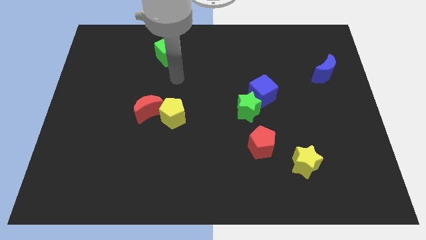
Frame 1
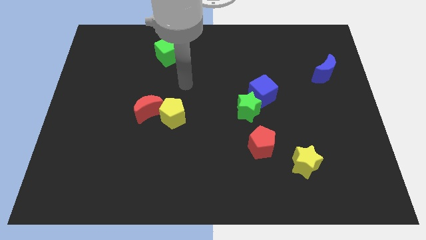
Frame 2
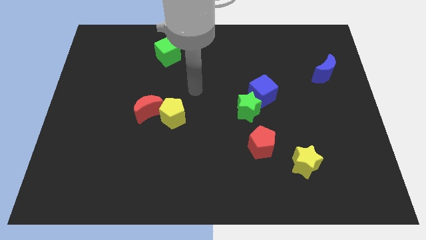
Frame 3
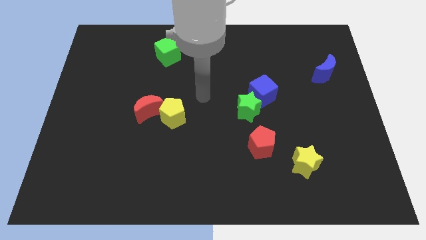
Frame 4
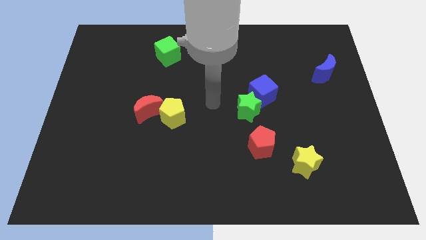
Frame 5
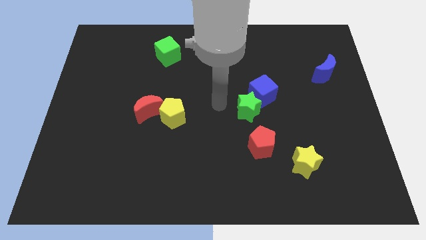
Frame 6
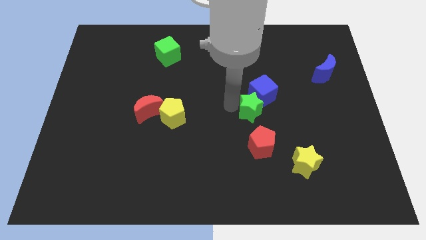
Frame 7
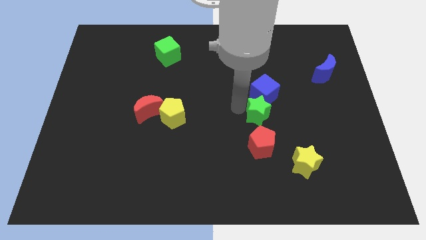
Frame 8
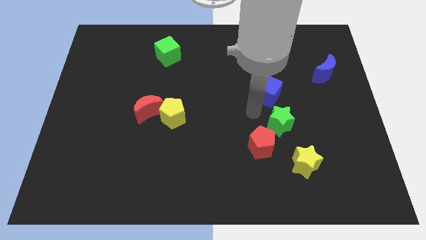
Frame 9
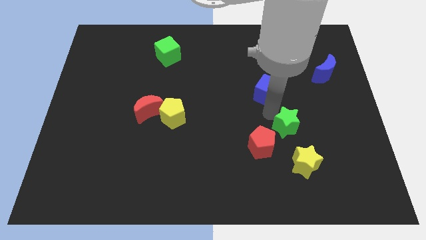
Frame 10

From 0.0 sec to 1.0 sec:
pull the blue cube apart from the green star

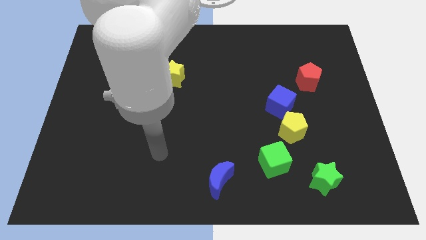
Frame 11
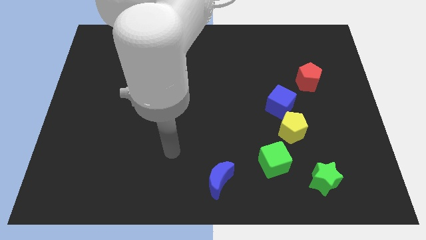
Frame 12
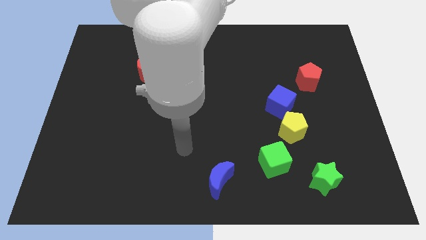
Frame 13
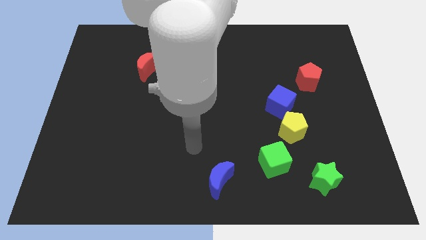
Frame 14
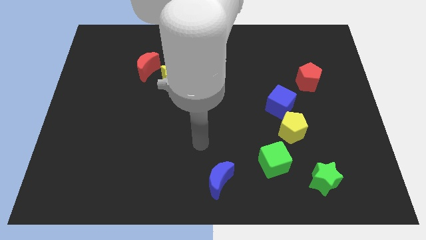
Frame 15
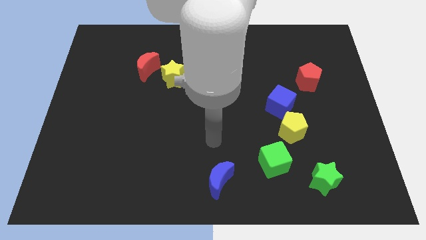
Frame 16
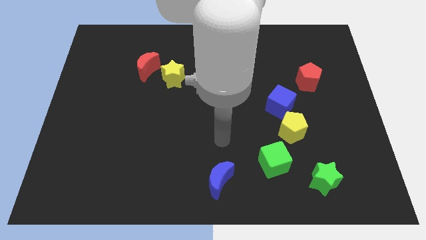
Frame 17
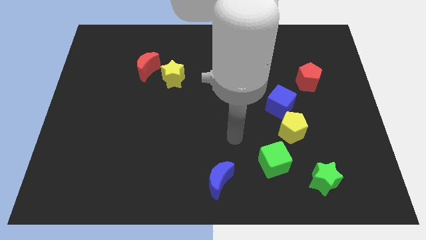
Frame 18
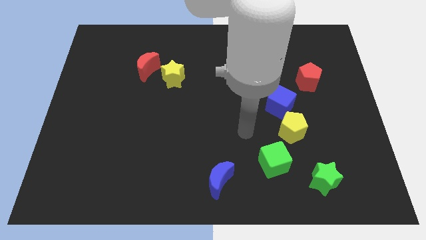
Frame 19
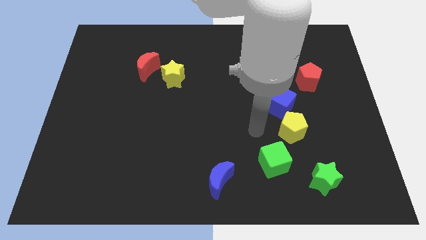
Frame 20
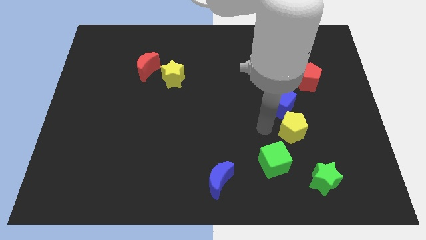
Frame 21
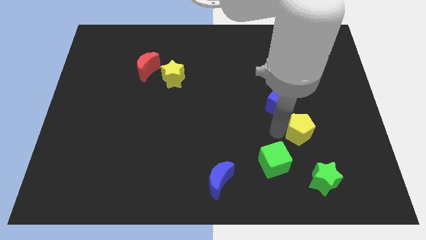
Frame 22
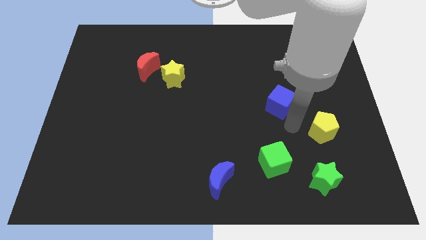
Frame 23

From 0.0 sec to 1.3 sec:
separate the blue cube from the yellow pentagon

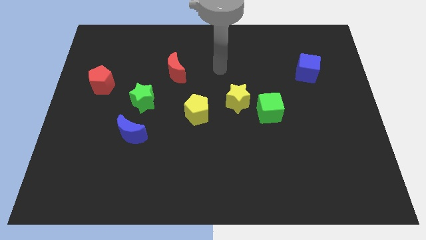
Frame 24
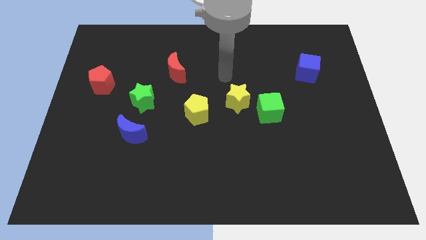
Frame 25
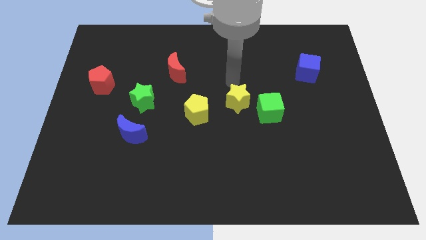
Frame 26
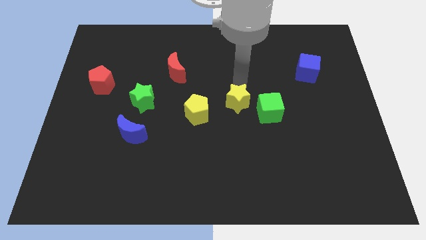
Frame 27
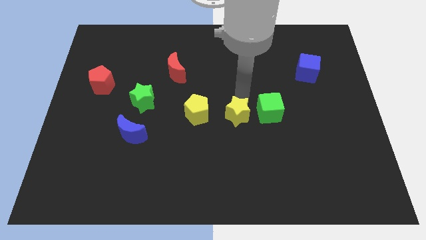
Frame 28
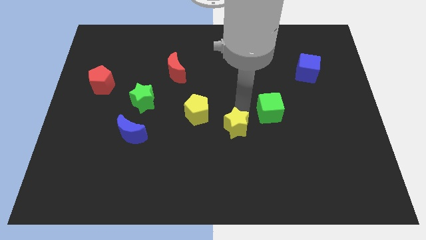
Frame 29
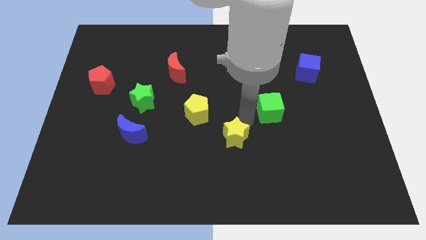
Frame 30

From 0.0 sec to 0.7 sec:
move the green cube away from the yellow star

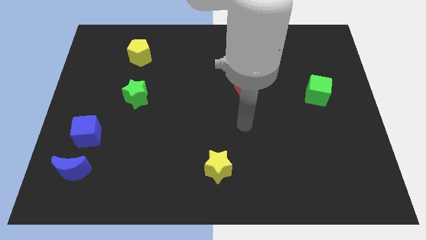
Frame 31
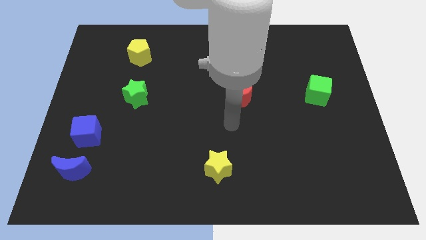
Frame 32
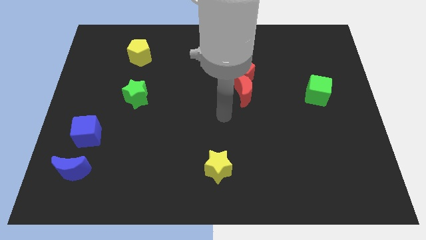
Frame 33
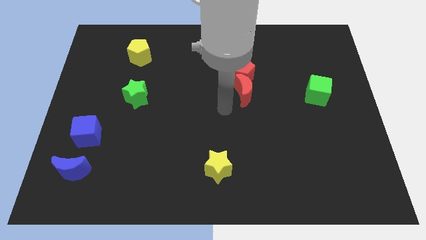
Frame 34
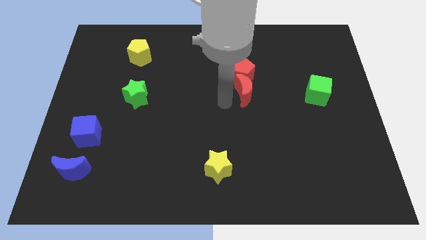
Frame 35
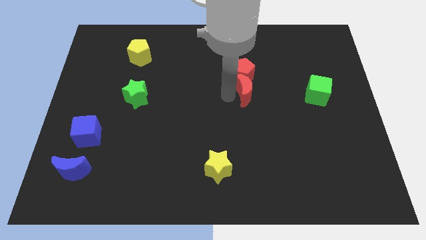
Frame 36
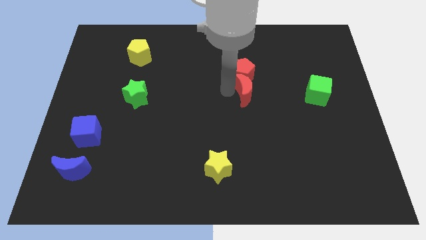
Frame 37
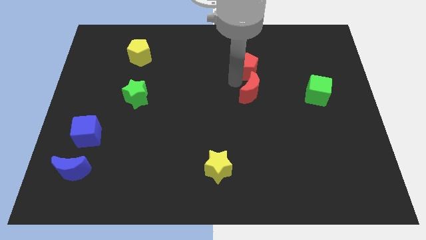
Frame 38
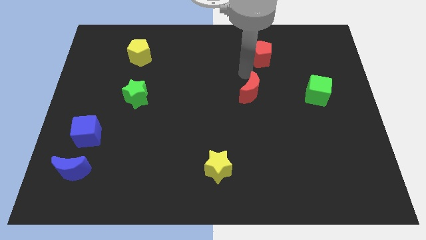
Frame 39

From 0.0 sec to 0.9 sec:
pull the red moon apart from the red pentagon

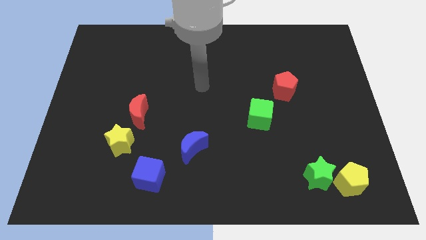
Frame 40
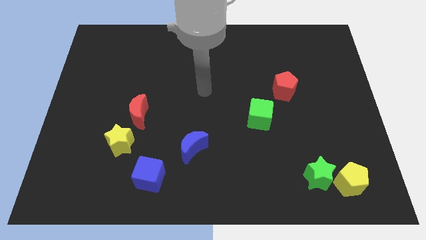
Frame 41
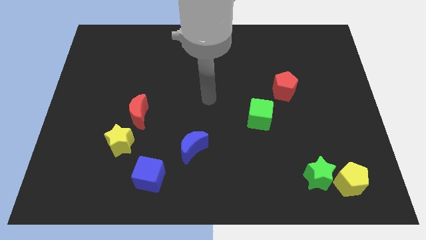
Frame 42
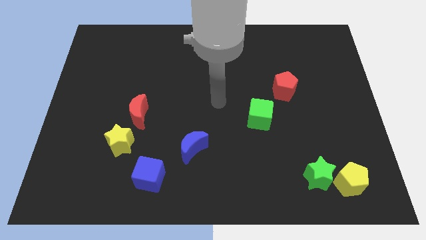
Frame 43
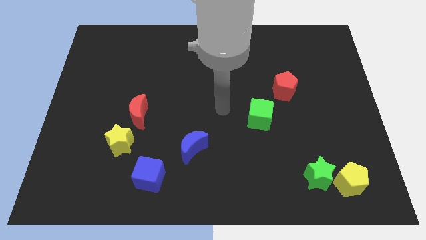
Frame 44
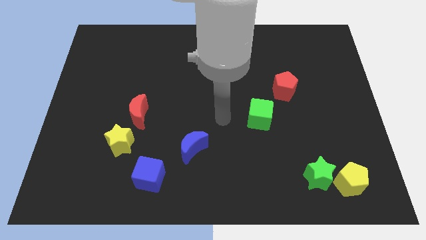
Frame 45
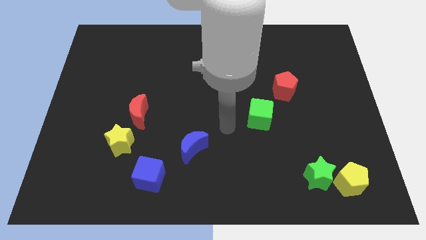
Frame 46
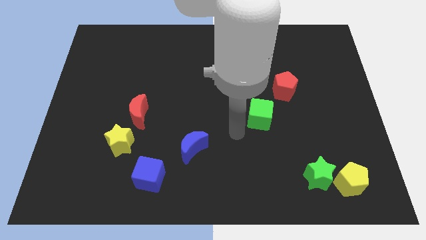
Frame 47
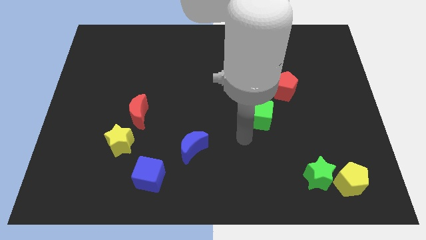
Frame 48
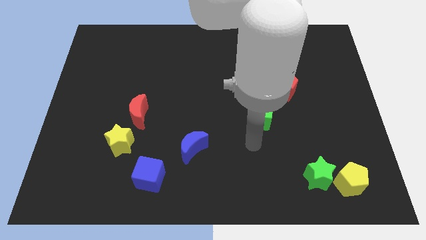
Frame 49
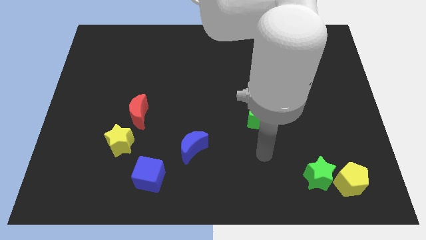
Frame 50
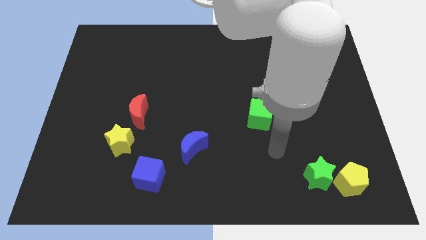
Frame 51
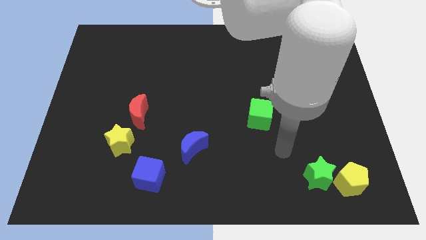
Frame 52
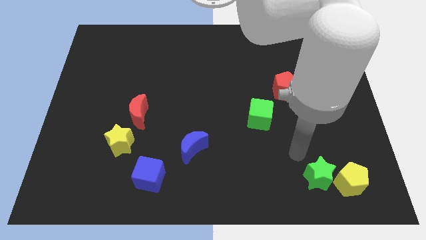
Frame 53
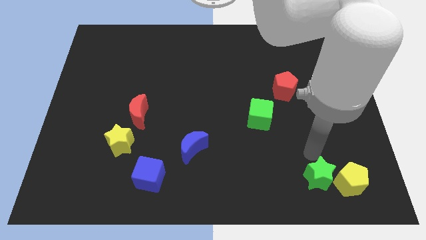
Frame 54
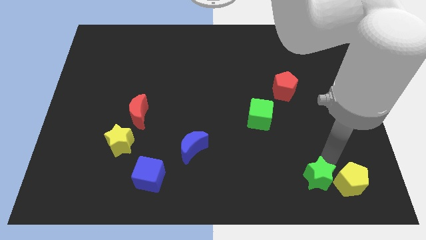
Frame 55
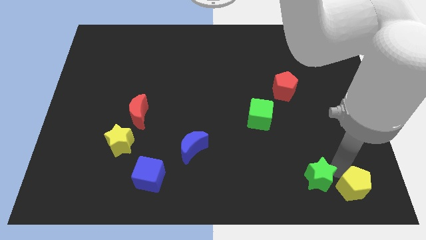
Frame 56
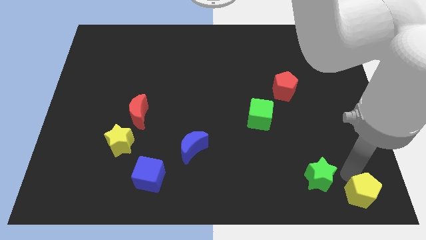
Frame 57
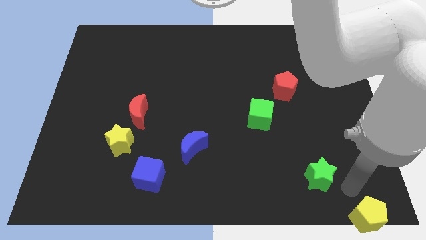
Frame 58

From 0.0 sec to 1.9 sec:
move the green star away from the yellow pentagon

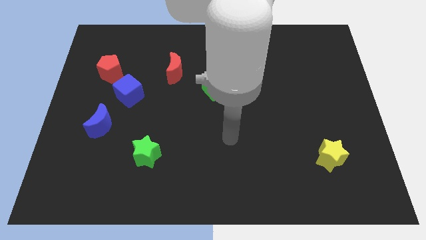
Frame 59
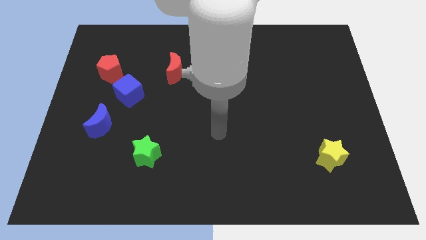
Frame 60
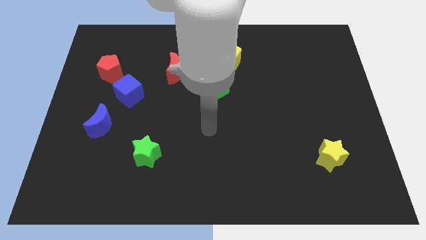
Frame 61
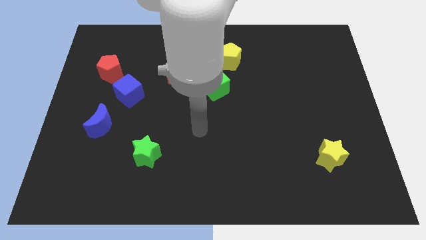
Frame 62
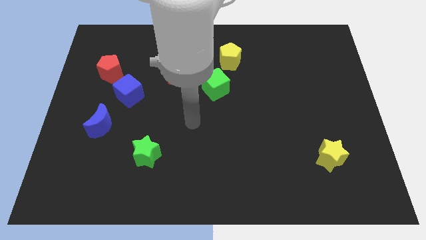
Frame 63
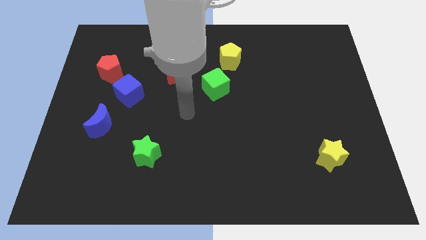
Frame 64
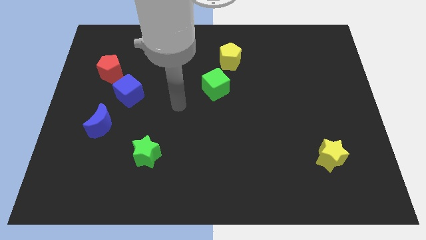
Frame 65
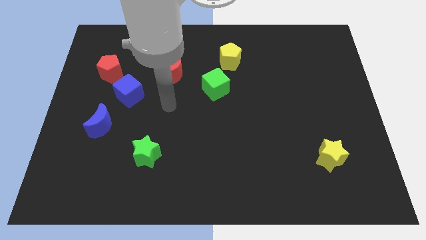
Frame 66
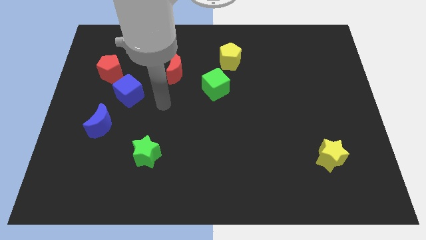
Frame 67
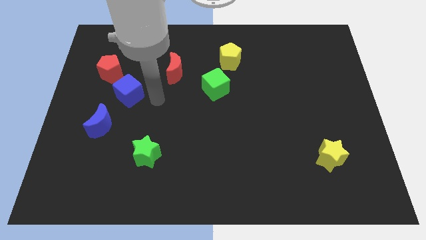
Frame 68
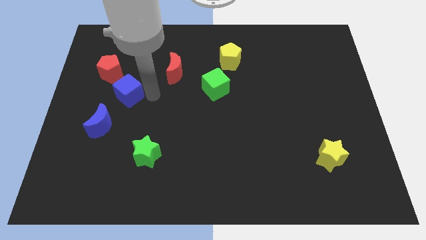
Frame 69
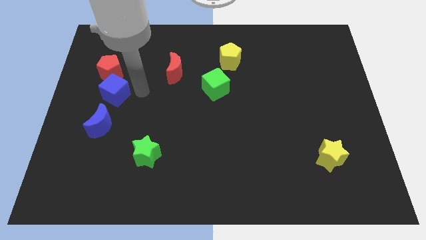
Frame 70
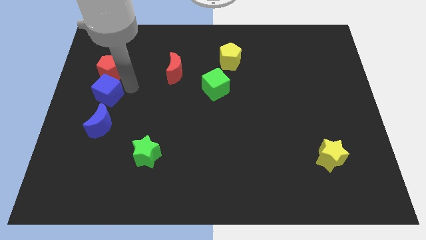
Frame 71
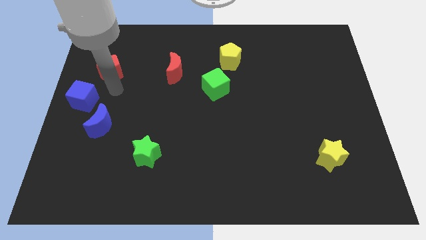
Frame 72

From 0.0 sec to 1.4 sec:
separate the red pentagon from the blue cube

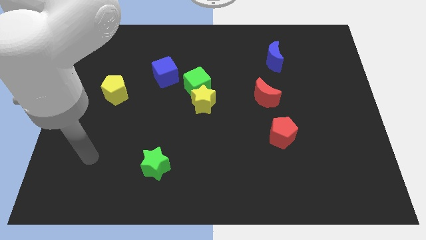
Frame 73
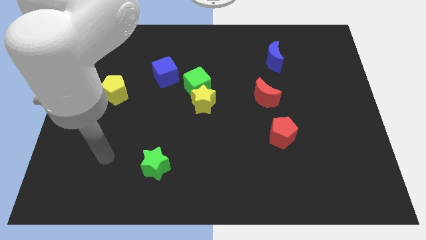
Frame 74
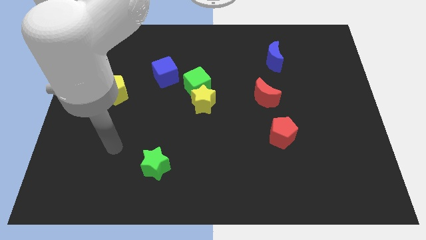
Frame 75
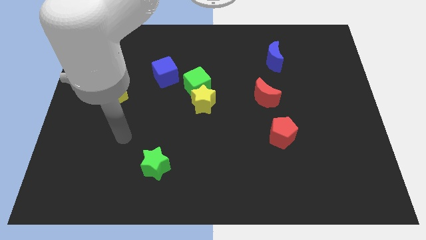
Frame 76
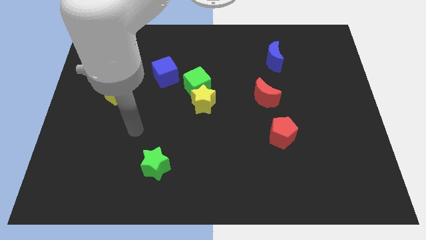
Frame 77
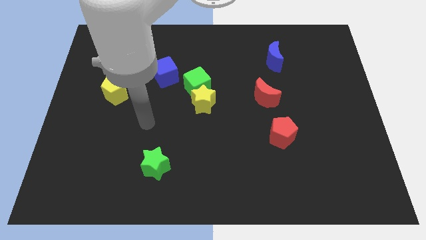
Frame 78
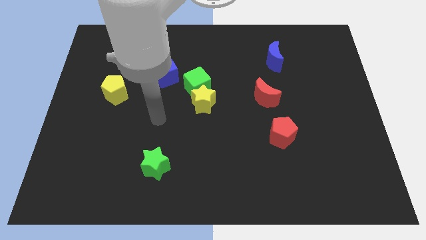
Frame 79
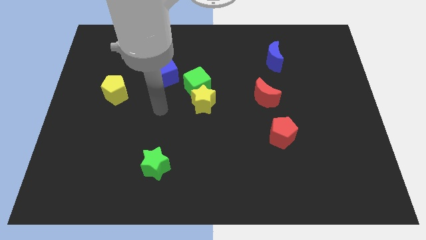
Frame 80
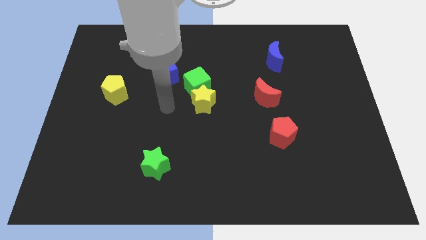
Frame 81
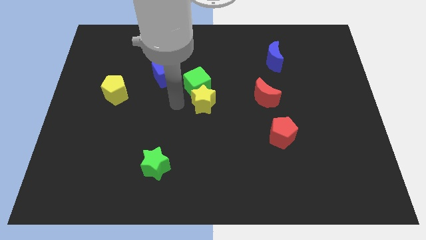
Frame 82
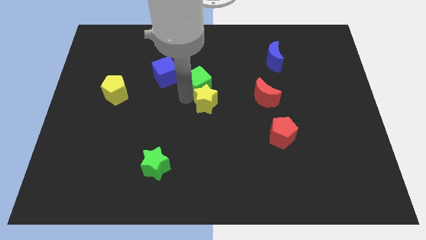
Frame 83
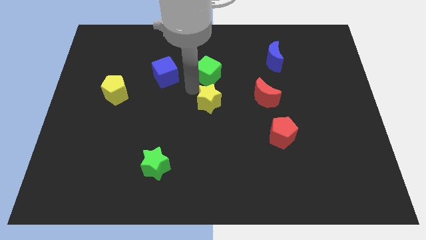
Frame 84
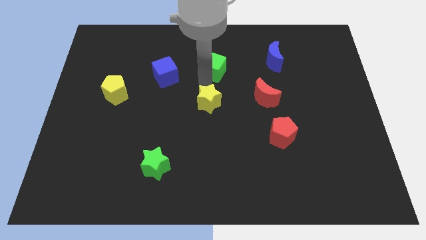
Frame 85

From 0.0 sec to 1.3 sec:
separate the yellow star from the green cube

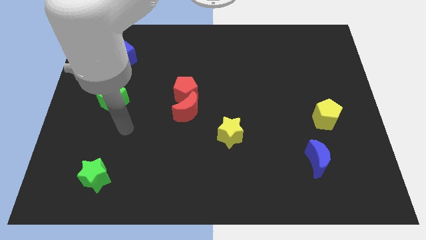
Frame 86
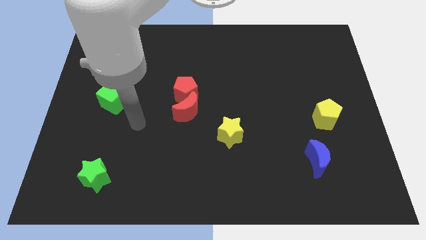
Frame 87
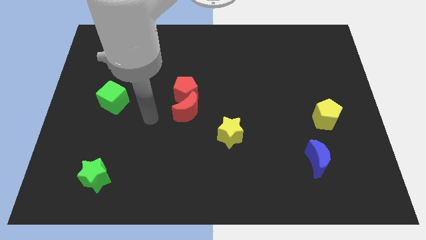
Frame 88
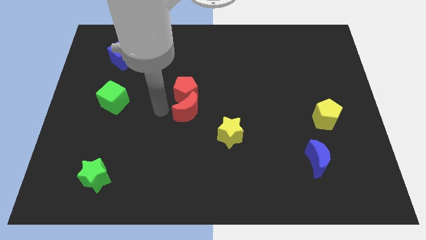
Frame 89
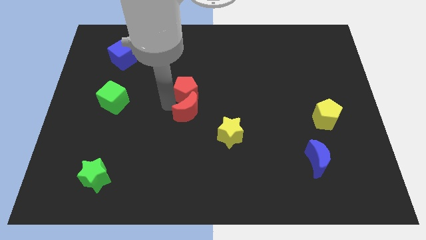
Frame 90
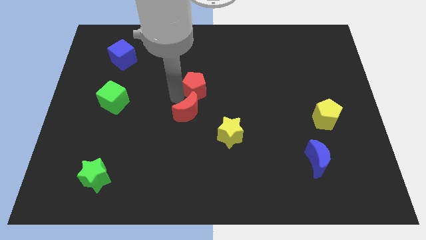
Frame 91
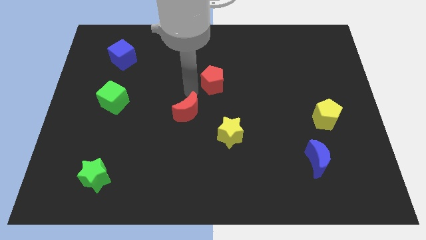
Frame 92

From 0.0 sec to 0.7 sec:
separate the red moon from the red pentagon

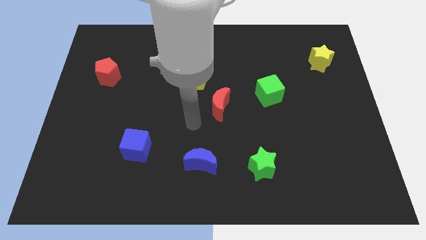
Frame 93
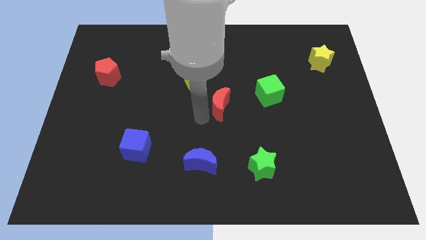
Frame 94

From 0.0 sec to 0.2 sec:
pull the red moon apart from the yellow pentagon
